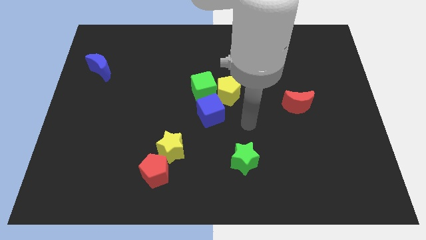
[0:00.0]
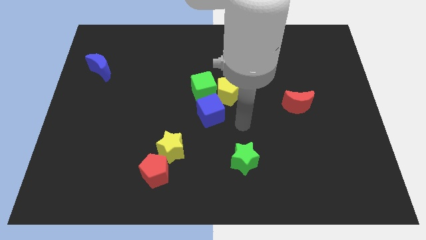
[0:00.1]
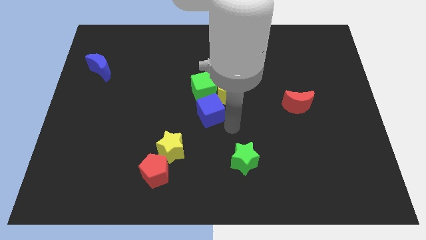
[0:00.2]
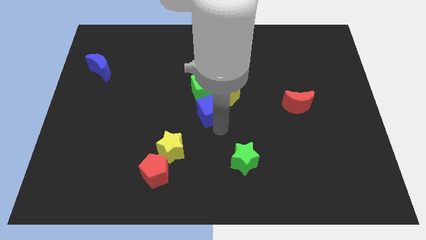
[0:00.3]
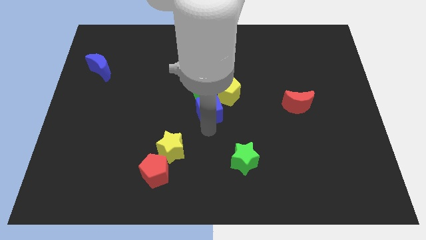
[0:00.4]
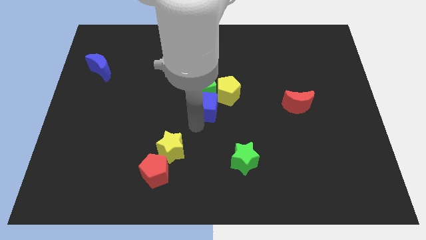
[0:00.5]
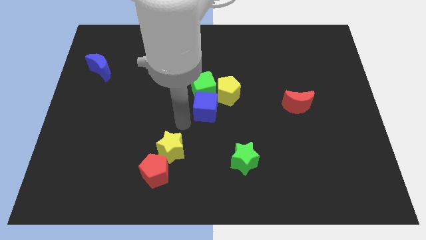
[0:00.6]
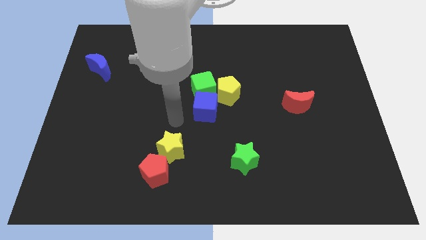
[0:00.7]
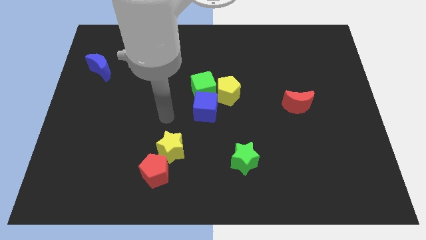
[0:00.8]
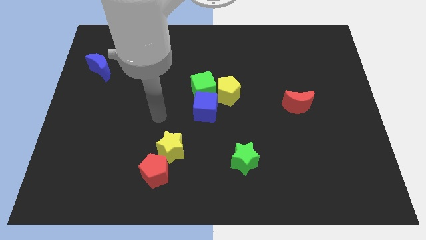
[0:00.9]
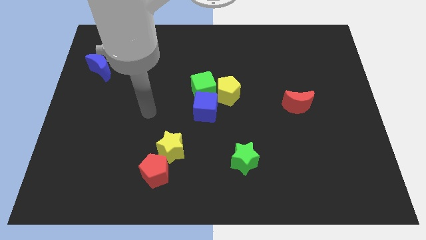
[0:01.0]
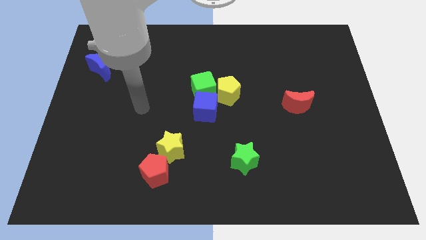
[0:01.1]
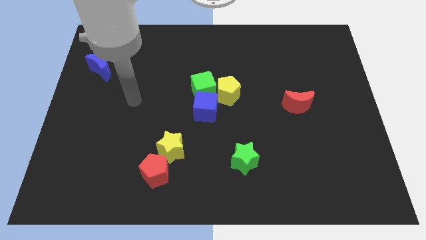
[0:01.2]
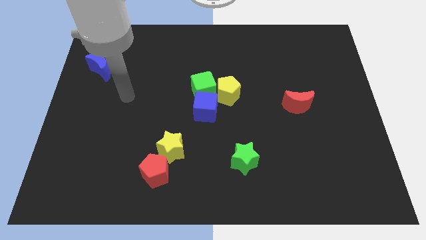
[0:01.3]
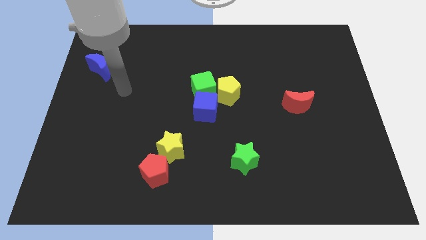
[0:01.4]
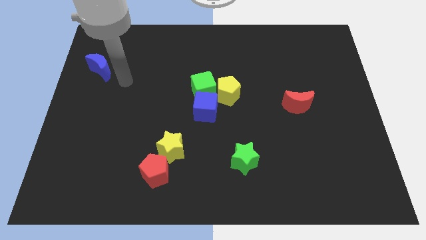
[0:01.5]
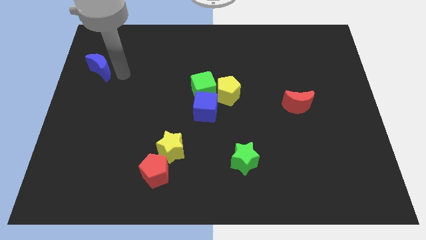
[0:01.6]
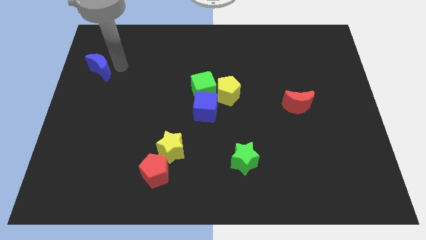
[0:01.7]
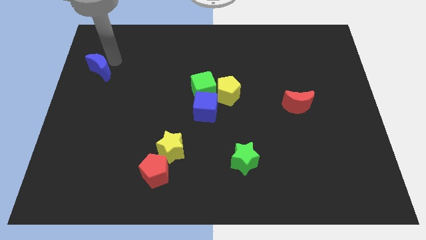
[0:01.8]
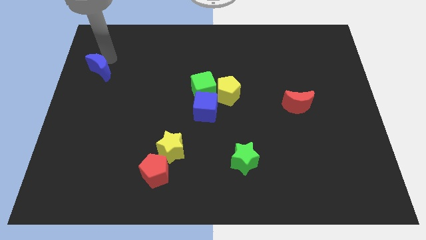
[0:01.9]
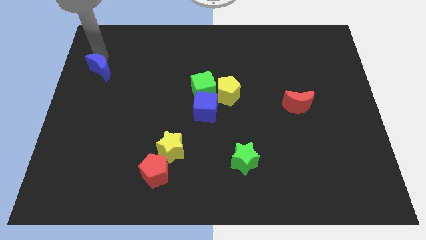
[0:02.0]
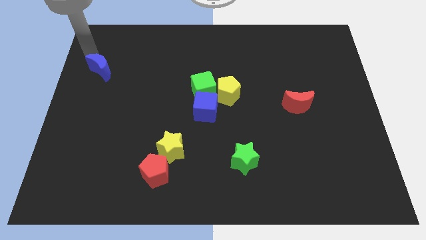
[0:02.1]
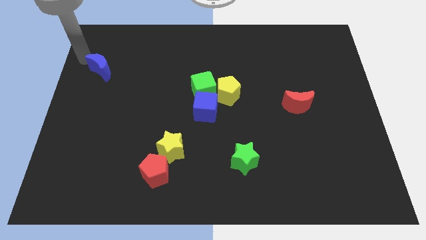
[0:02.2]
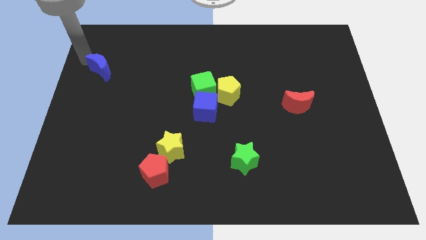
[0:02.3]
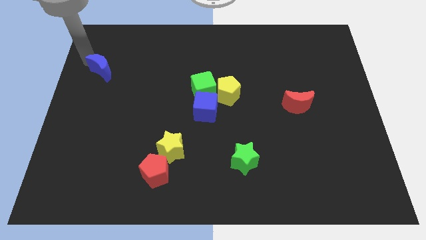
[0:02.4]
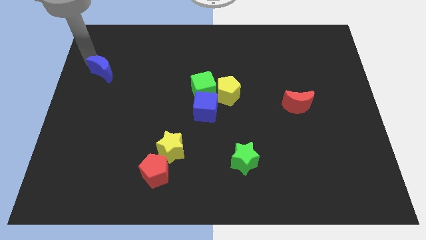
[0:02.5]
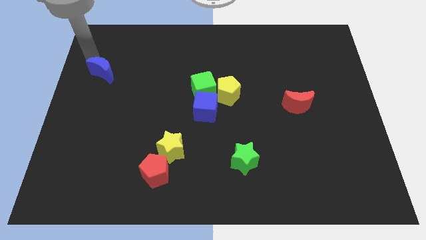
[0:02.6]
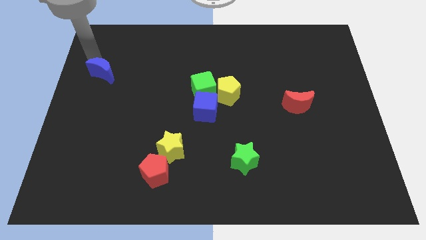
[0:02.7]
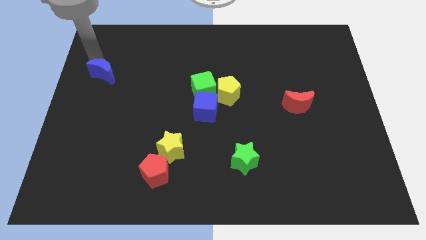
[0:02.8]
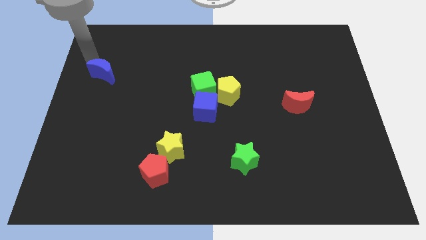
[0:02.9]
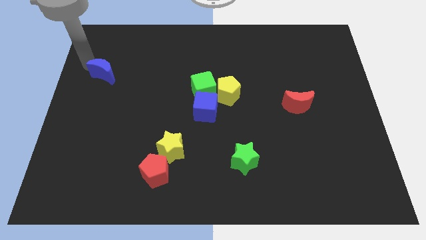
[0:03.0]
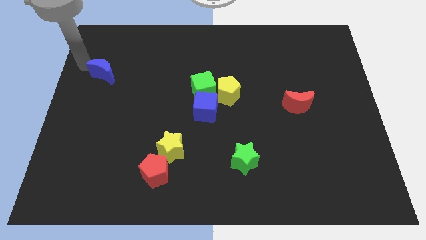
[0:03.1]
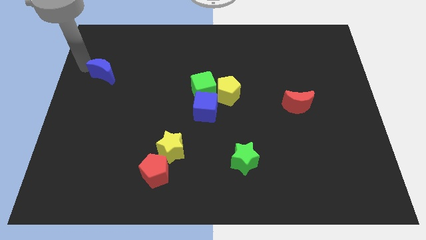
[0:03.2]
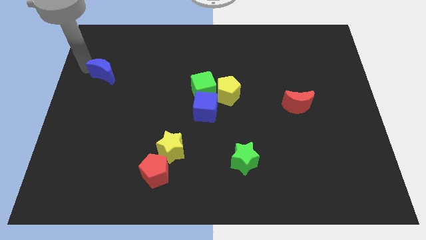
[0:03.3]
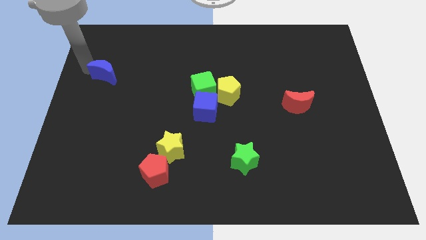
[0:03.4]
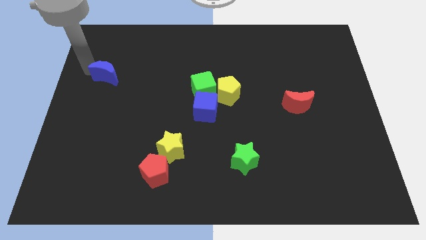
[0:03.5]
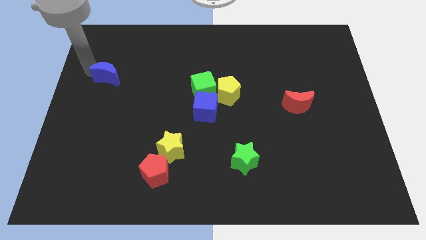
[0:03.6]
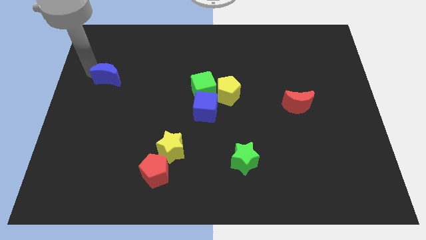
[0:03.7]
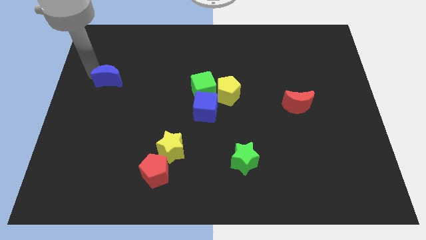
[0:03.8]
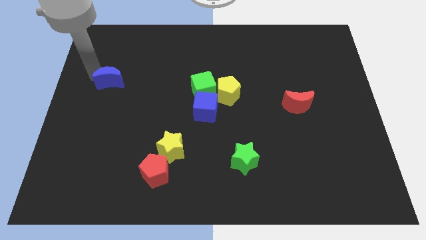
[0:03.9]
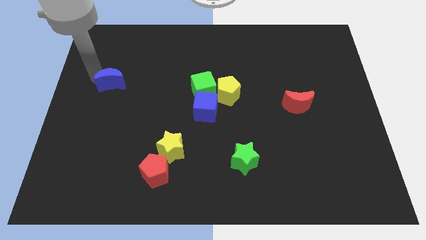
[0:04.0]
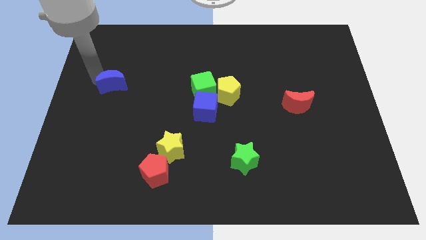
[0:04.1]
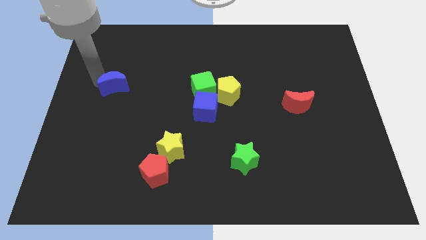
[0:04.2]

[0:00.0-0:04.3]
slightly slide the blue moon diagonally downwards and to the right

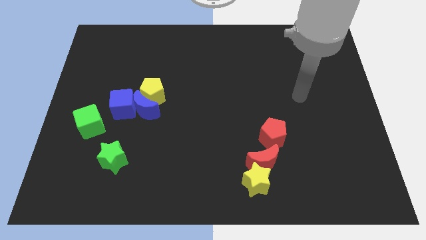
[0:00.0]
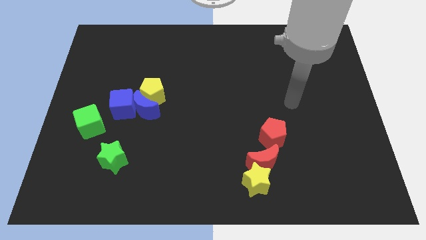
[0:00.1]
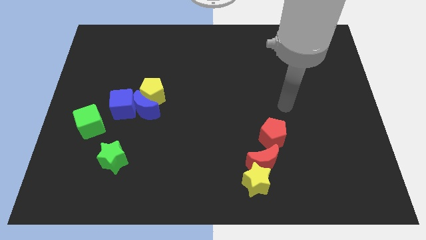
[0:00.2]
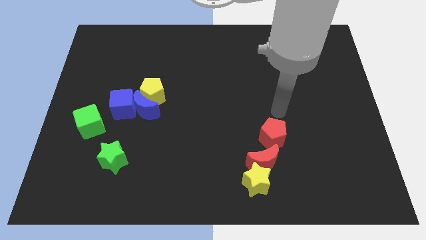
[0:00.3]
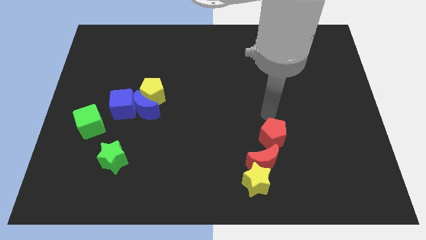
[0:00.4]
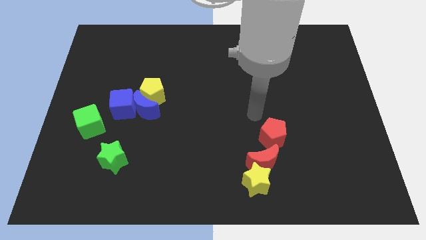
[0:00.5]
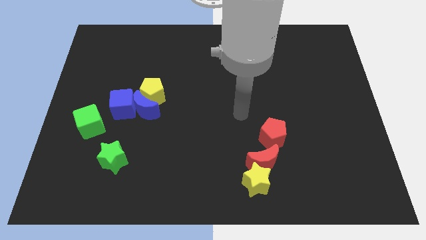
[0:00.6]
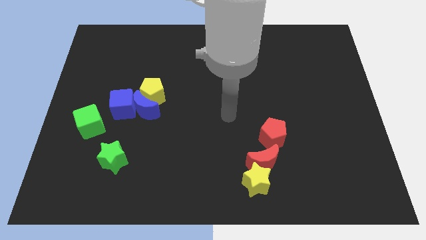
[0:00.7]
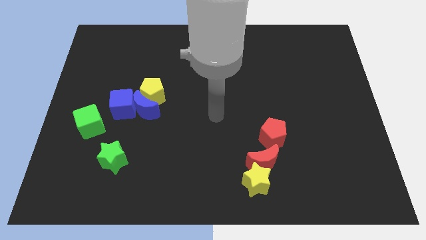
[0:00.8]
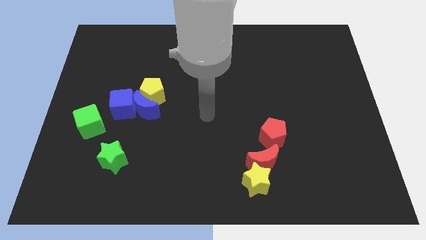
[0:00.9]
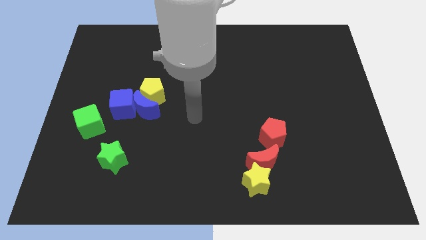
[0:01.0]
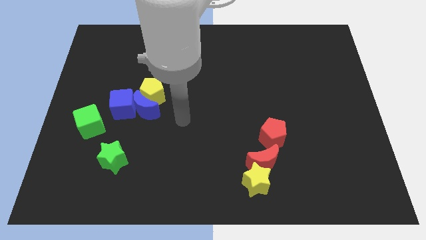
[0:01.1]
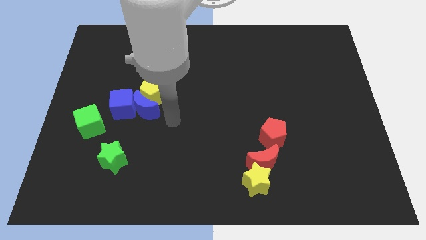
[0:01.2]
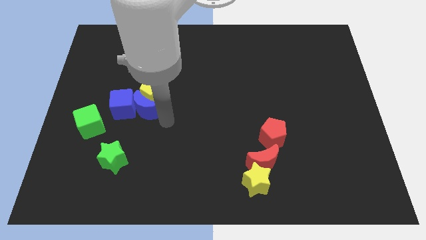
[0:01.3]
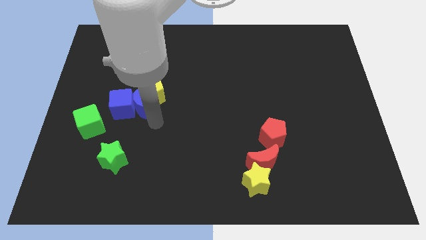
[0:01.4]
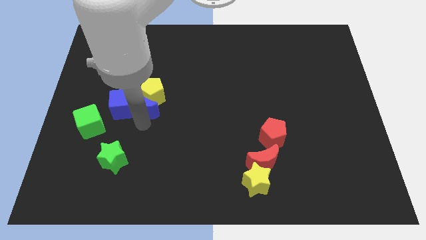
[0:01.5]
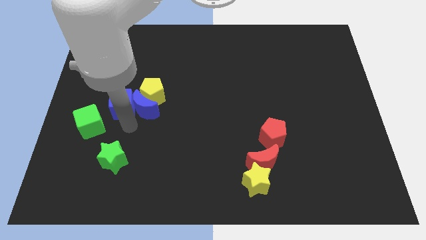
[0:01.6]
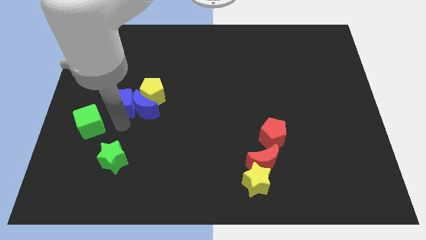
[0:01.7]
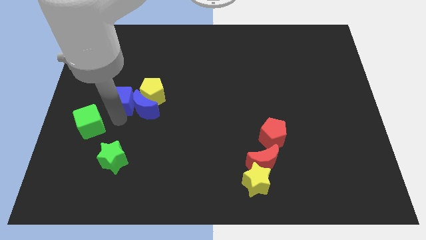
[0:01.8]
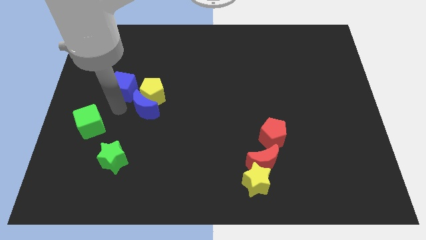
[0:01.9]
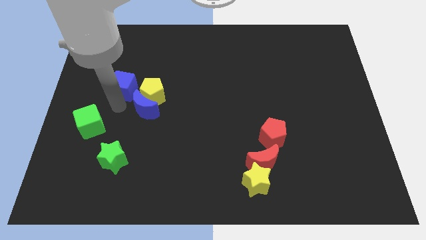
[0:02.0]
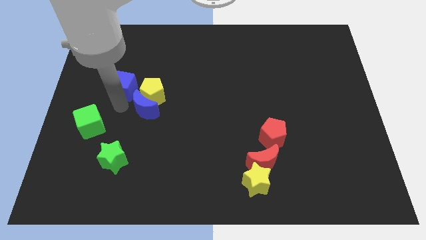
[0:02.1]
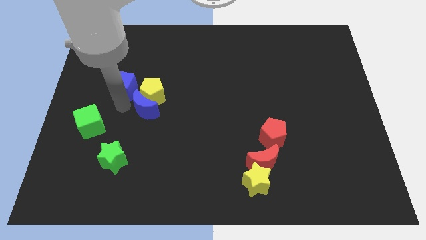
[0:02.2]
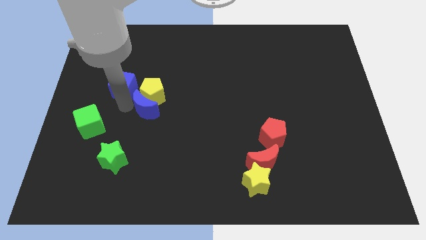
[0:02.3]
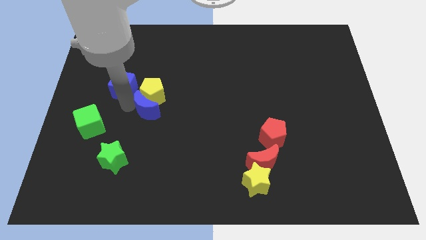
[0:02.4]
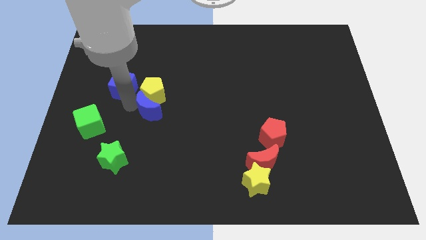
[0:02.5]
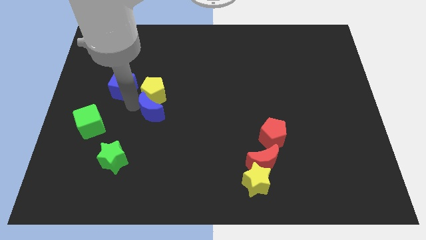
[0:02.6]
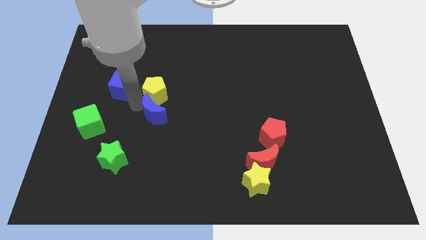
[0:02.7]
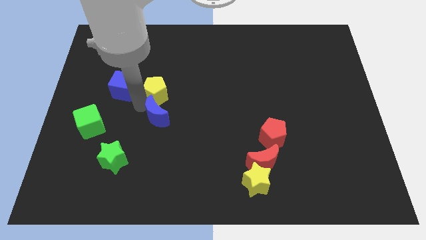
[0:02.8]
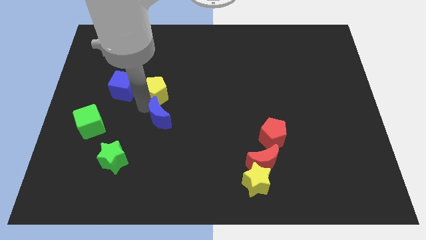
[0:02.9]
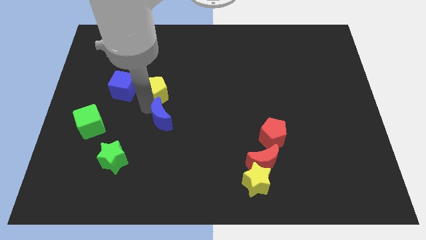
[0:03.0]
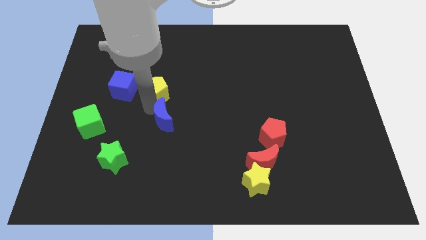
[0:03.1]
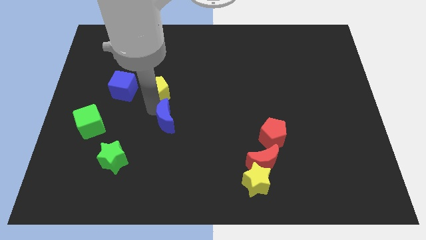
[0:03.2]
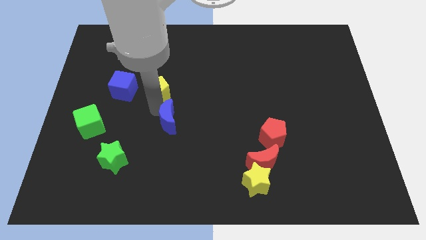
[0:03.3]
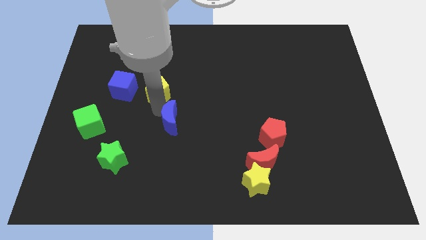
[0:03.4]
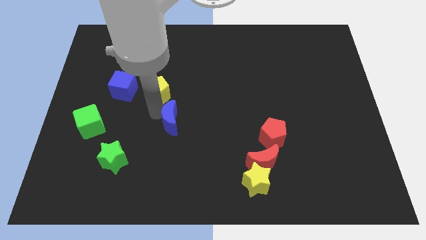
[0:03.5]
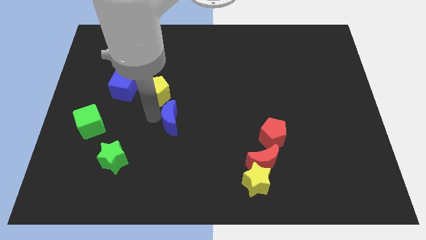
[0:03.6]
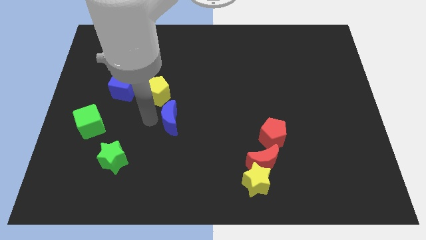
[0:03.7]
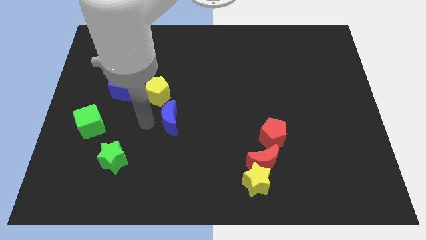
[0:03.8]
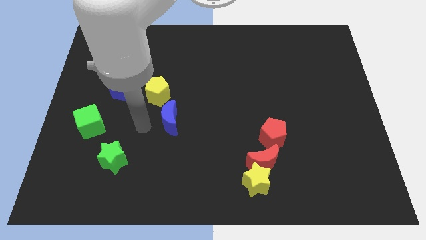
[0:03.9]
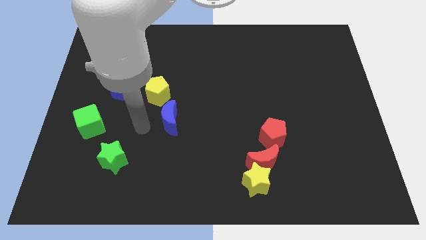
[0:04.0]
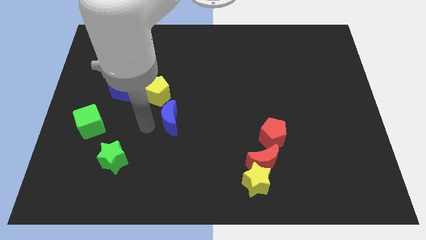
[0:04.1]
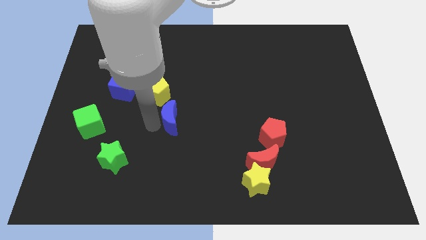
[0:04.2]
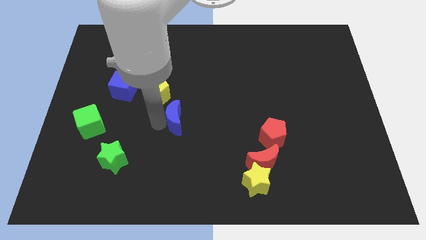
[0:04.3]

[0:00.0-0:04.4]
slightly move the blue moon to the right
